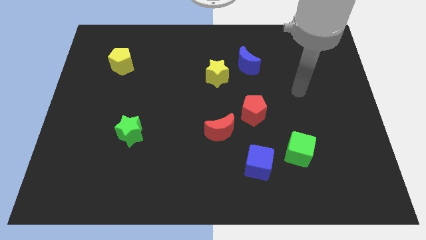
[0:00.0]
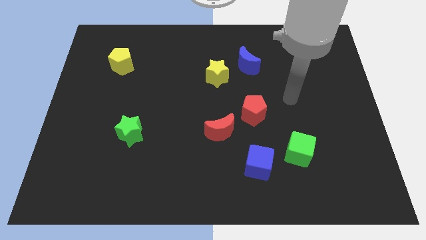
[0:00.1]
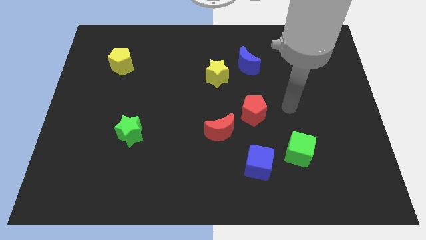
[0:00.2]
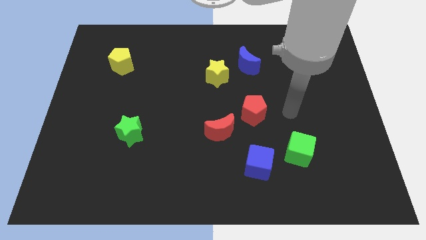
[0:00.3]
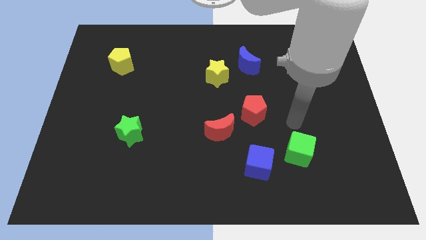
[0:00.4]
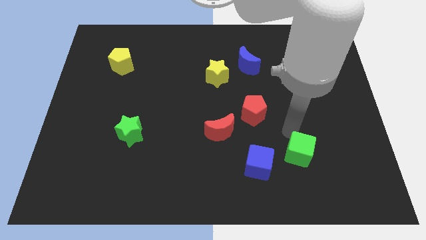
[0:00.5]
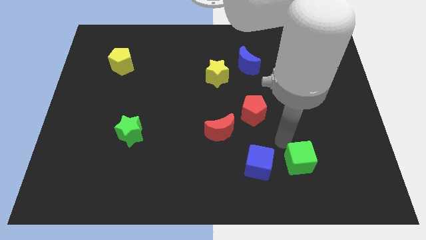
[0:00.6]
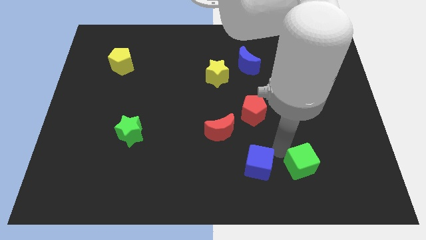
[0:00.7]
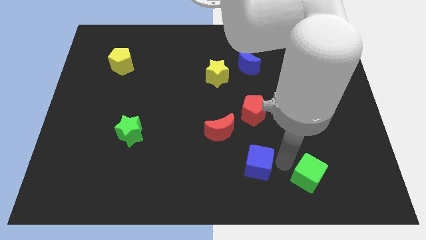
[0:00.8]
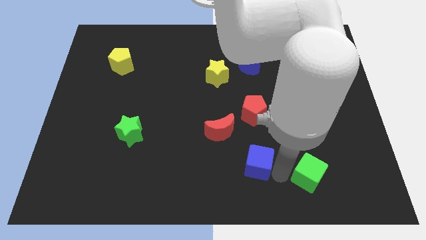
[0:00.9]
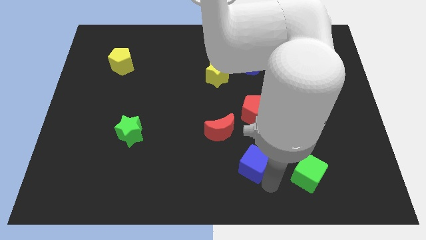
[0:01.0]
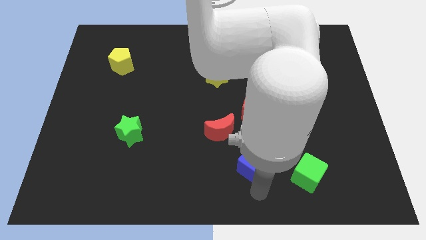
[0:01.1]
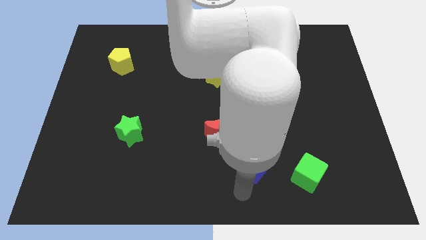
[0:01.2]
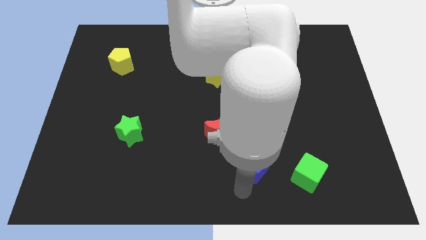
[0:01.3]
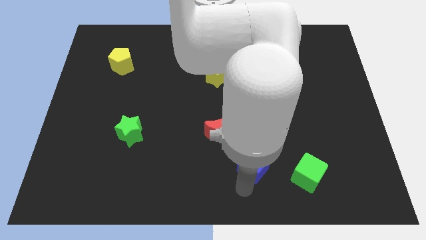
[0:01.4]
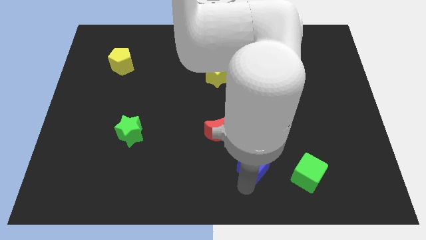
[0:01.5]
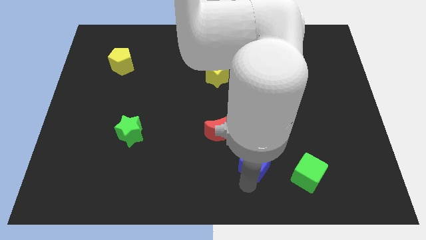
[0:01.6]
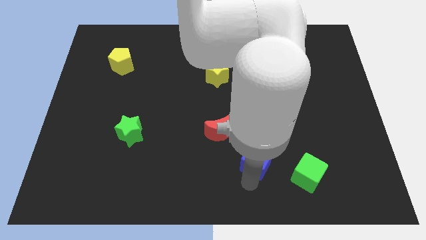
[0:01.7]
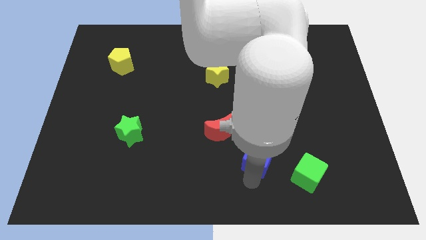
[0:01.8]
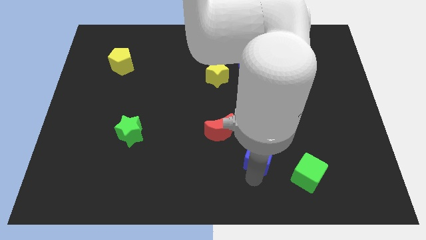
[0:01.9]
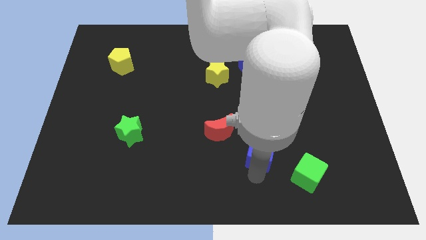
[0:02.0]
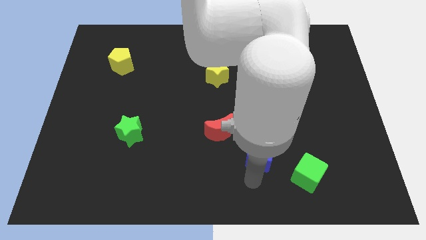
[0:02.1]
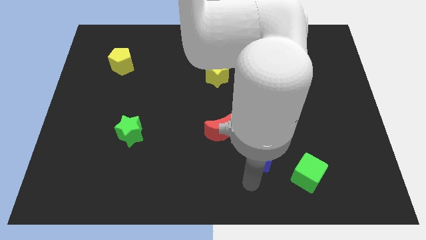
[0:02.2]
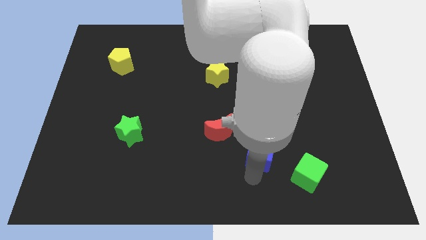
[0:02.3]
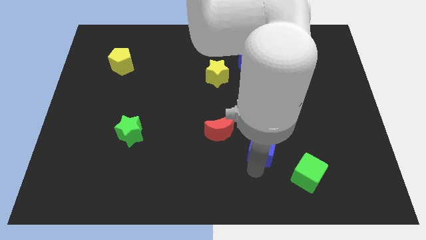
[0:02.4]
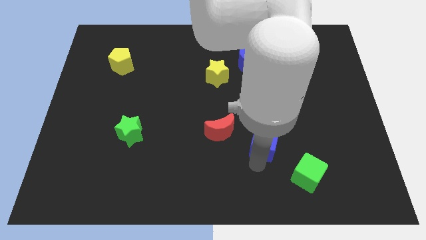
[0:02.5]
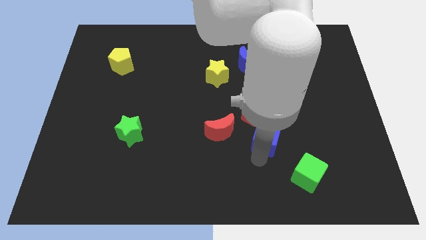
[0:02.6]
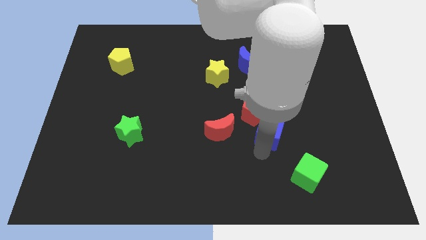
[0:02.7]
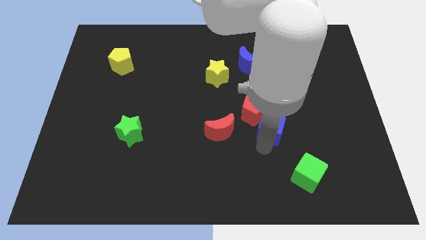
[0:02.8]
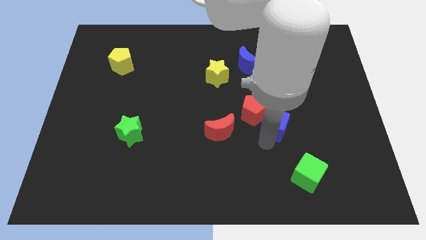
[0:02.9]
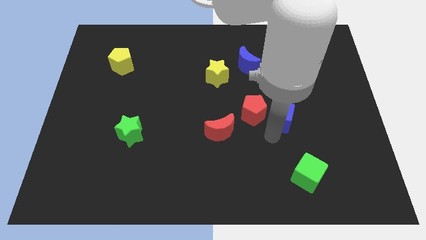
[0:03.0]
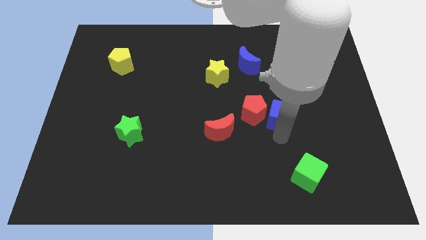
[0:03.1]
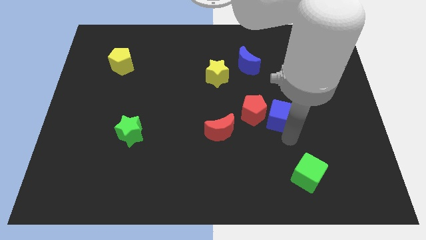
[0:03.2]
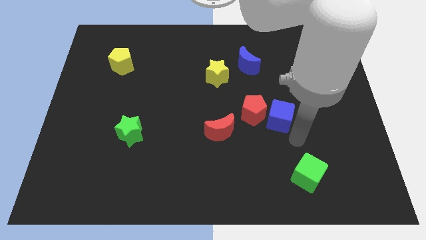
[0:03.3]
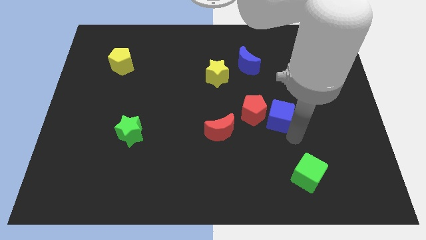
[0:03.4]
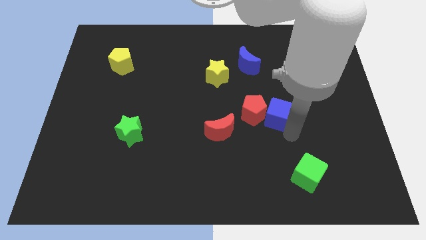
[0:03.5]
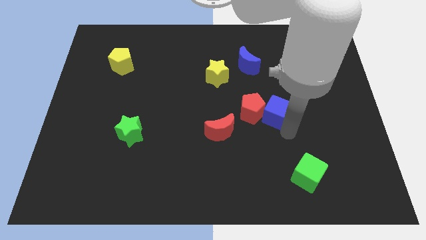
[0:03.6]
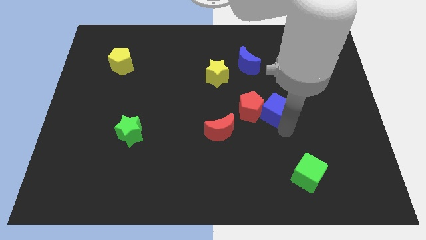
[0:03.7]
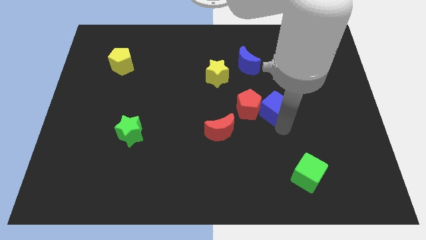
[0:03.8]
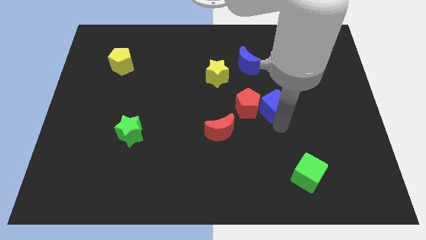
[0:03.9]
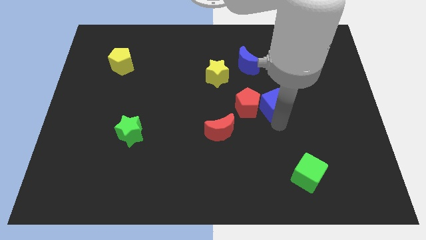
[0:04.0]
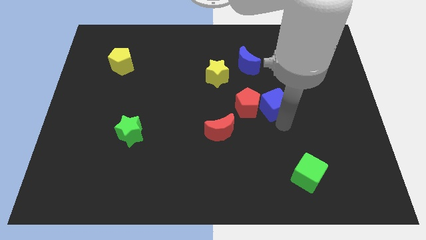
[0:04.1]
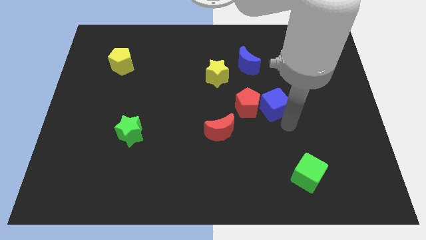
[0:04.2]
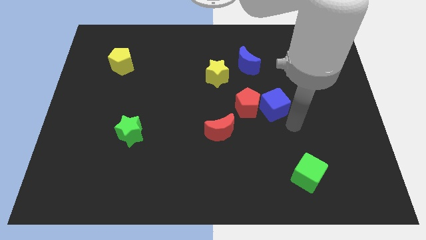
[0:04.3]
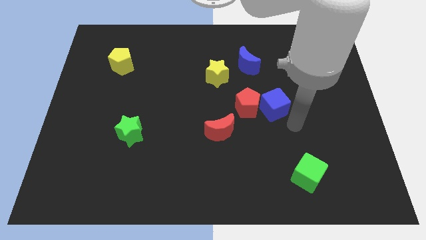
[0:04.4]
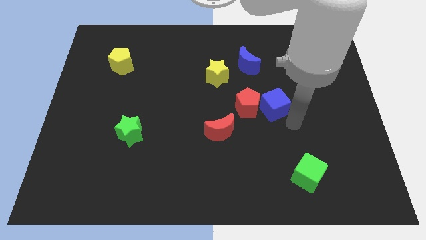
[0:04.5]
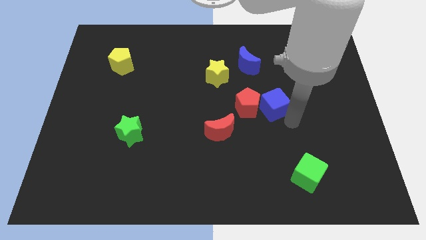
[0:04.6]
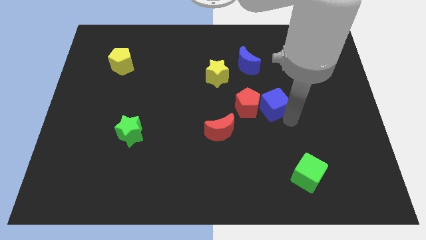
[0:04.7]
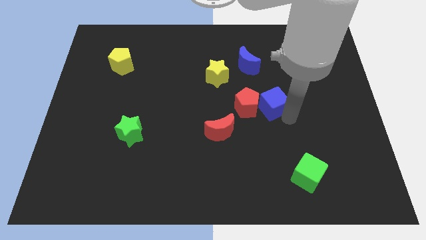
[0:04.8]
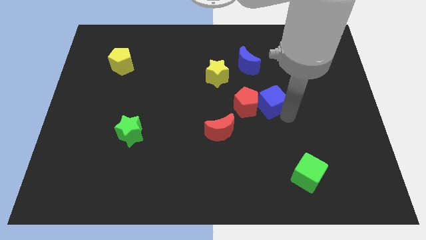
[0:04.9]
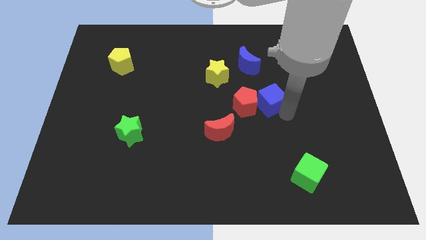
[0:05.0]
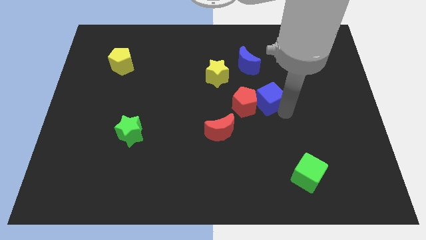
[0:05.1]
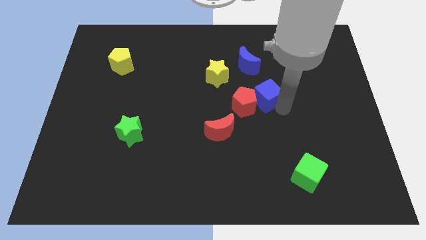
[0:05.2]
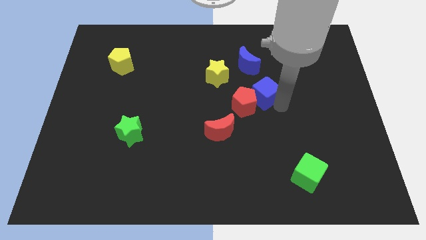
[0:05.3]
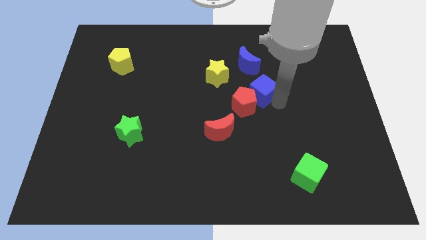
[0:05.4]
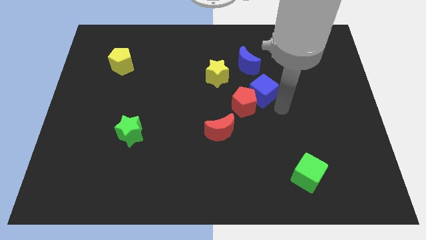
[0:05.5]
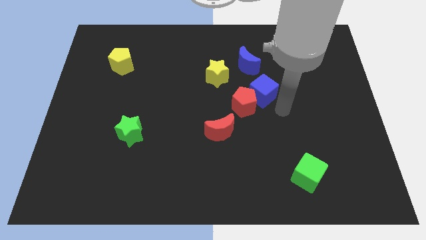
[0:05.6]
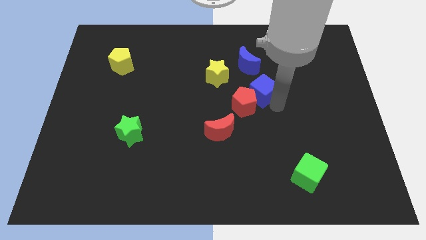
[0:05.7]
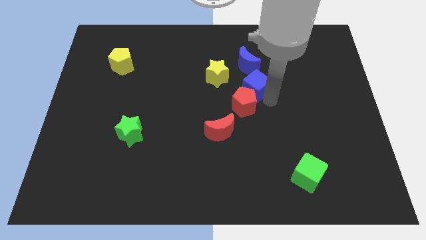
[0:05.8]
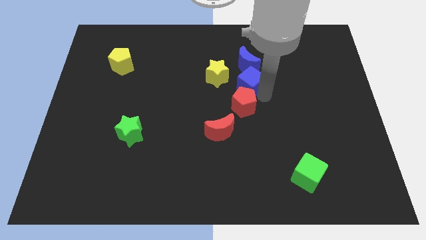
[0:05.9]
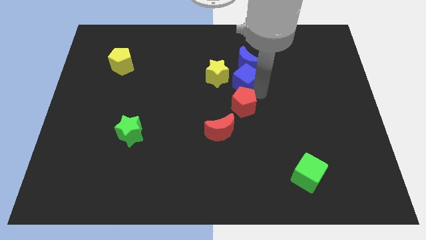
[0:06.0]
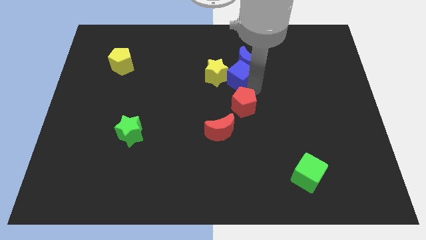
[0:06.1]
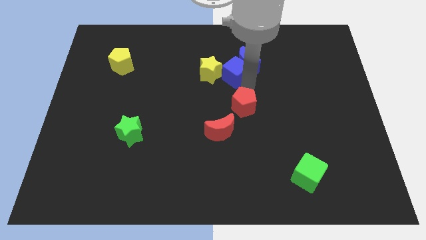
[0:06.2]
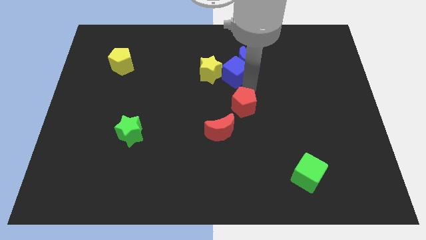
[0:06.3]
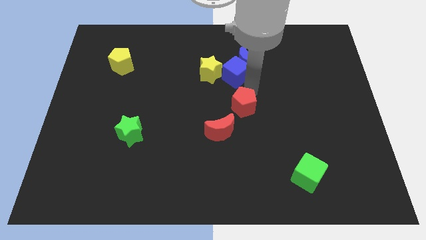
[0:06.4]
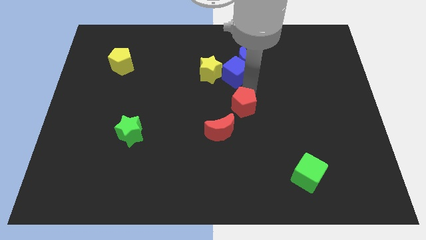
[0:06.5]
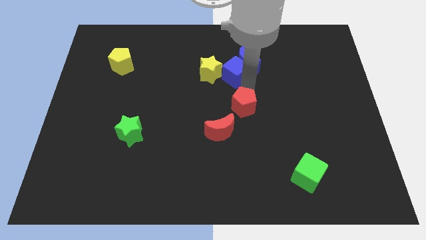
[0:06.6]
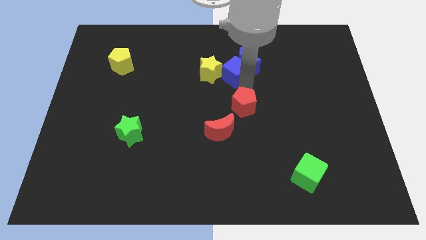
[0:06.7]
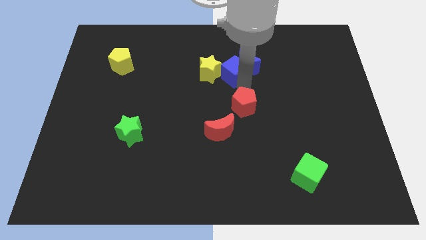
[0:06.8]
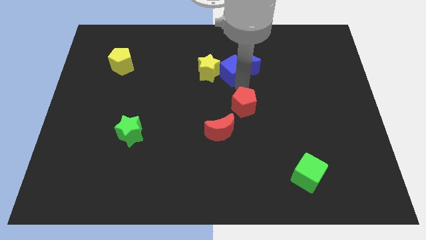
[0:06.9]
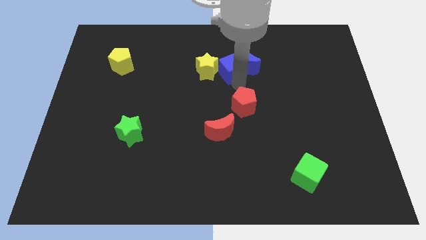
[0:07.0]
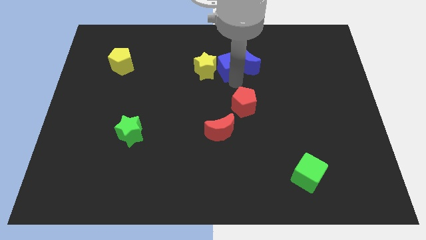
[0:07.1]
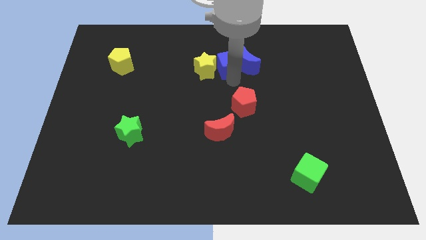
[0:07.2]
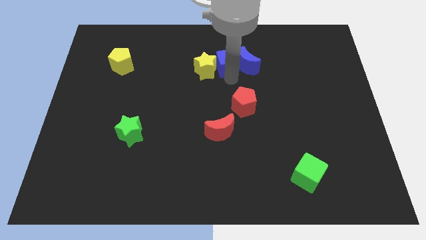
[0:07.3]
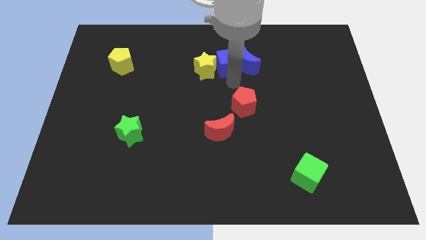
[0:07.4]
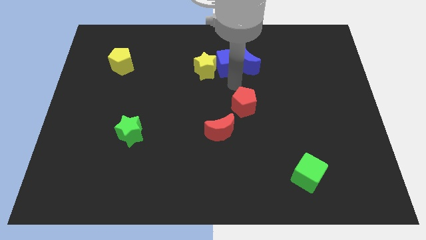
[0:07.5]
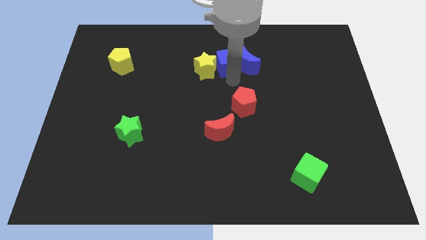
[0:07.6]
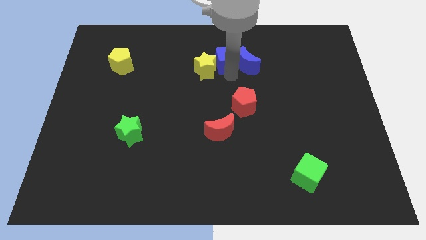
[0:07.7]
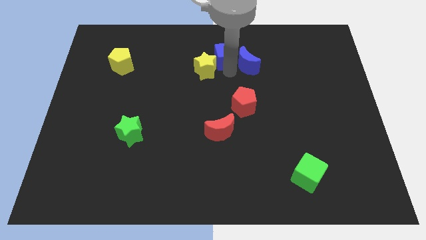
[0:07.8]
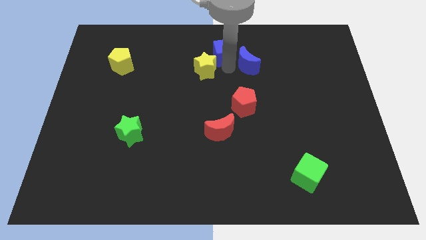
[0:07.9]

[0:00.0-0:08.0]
put the blue cube to the top
